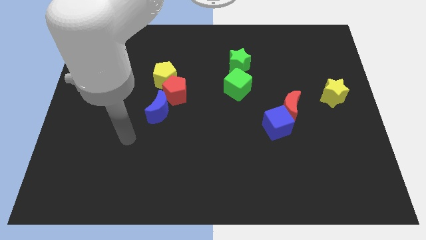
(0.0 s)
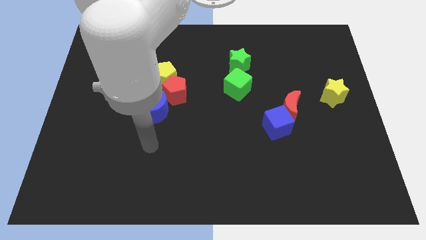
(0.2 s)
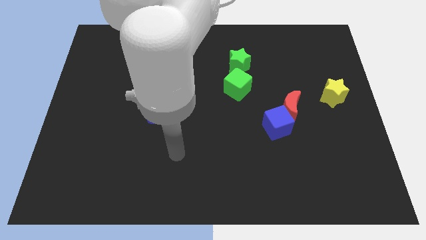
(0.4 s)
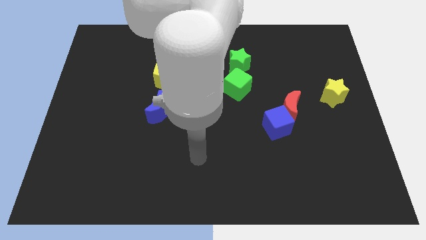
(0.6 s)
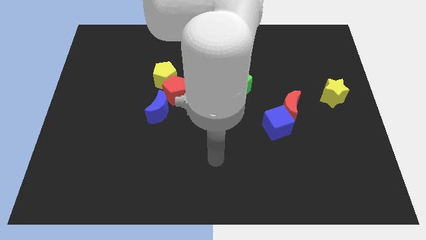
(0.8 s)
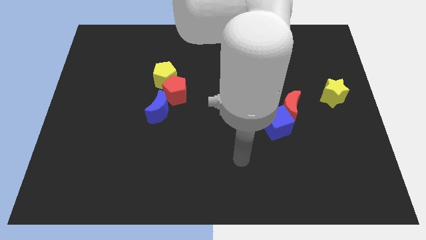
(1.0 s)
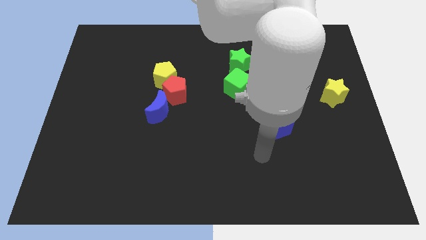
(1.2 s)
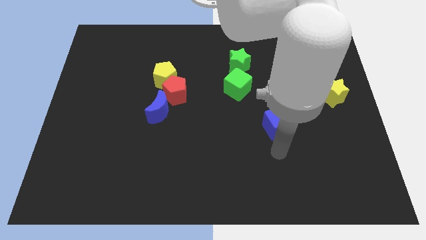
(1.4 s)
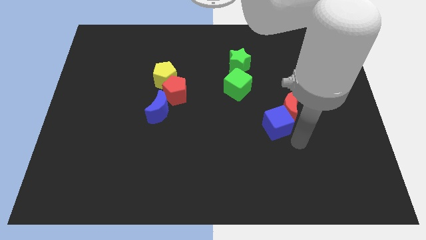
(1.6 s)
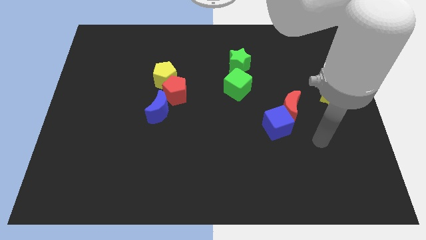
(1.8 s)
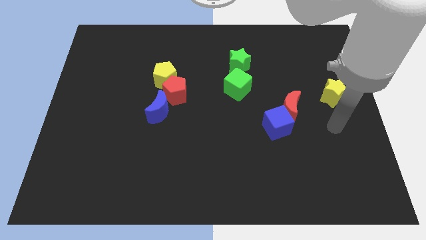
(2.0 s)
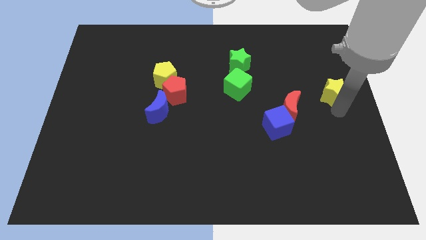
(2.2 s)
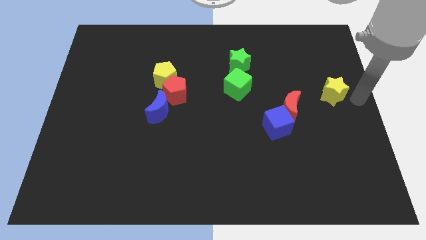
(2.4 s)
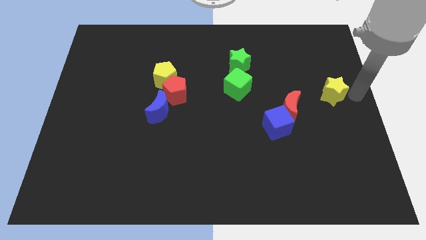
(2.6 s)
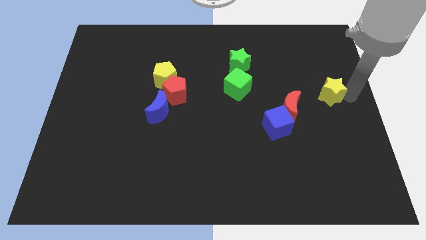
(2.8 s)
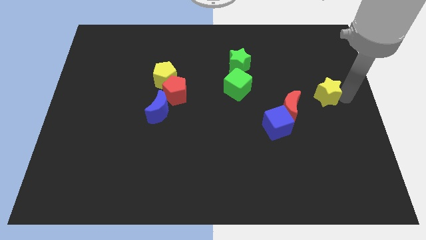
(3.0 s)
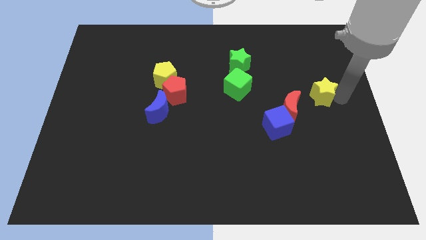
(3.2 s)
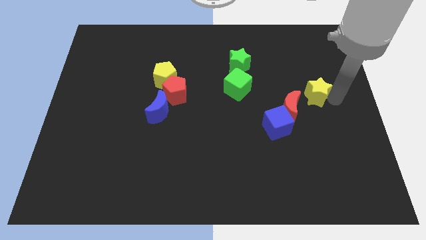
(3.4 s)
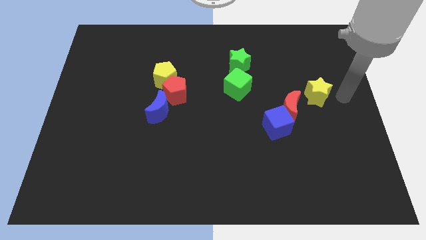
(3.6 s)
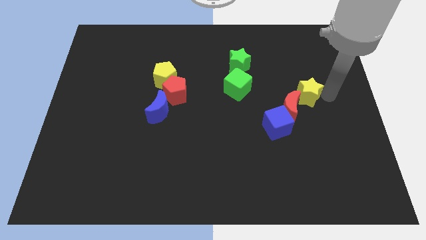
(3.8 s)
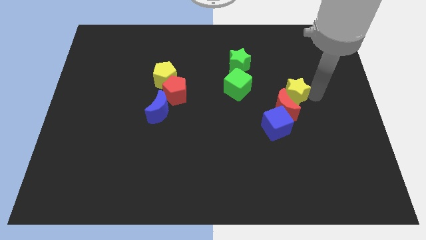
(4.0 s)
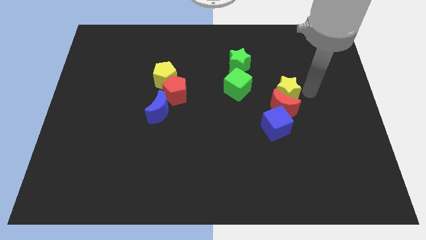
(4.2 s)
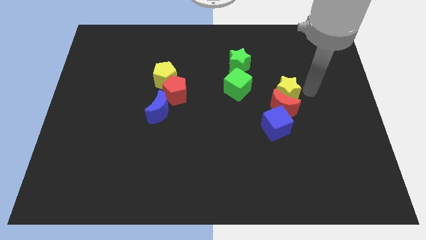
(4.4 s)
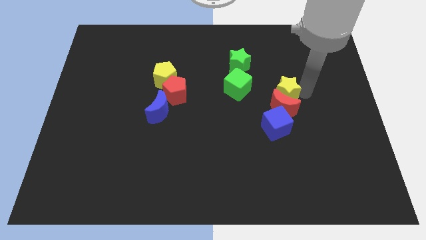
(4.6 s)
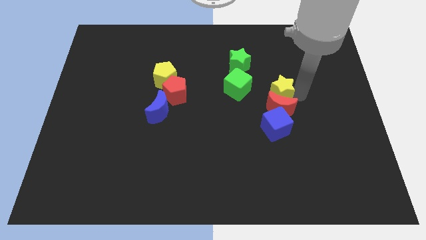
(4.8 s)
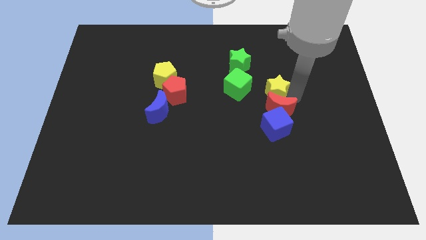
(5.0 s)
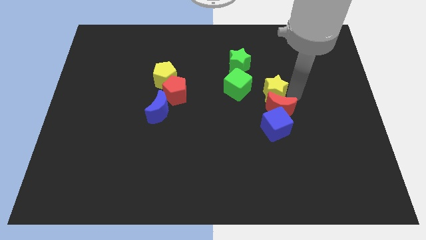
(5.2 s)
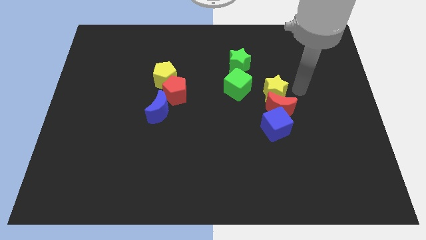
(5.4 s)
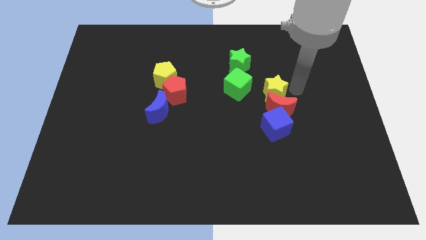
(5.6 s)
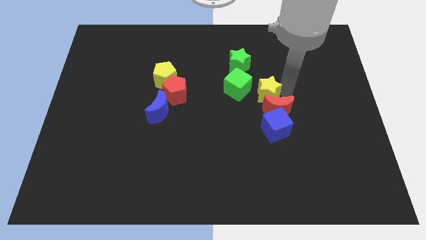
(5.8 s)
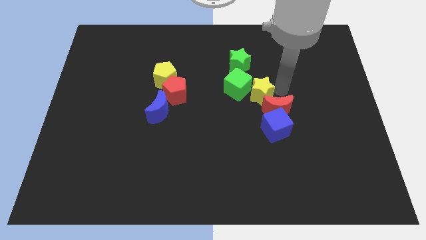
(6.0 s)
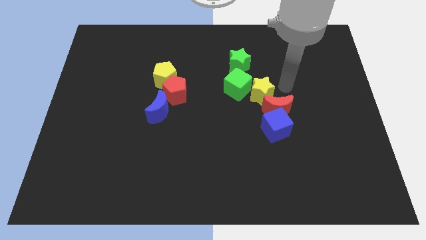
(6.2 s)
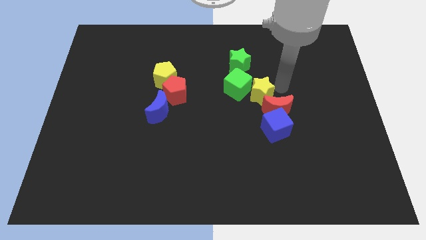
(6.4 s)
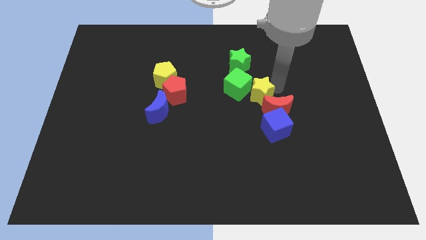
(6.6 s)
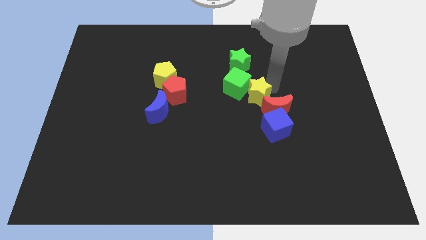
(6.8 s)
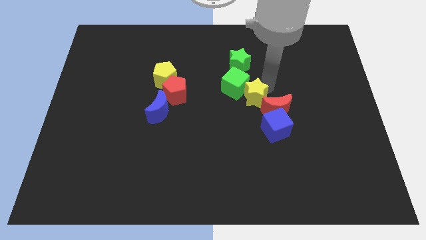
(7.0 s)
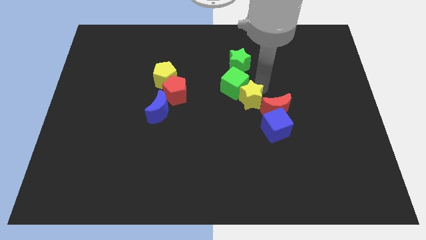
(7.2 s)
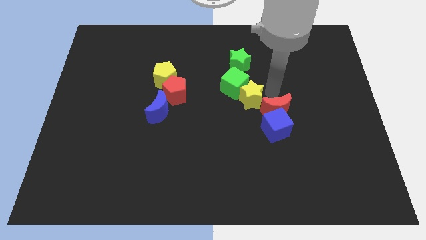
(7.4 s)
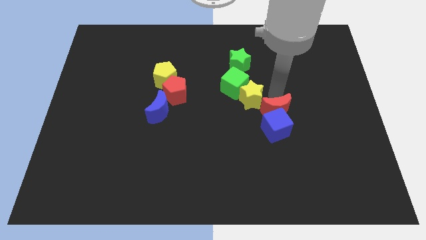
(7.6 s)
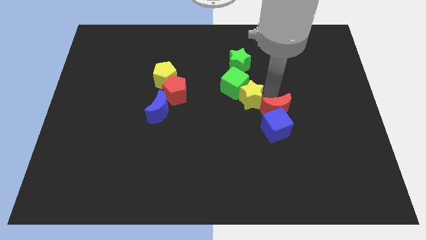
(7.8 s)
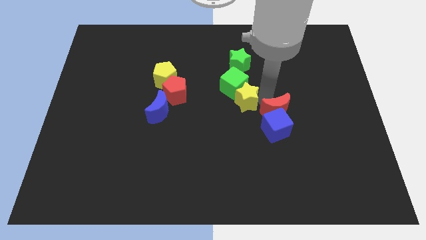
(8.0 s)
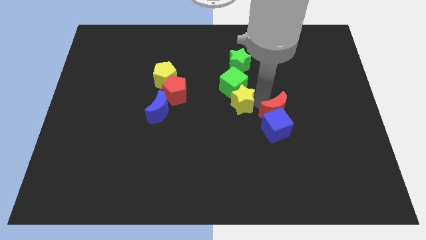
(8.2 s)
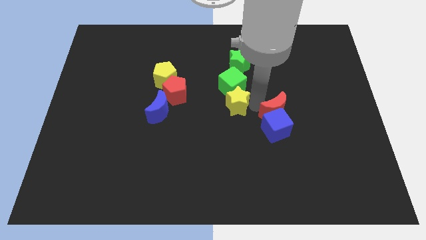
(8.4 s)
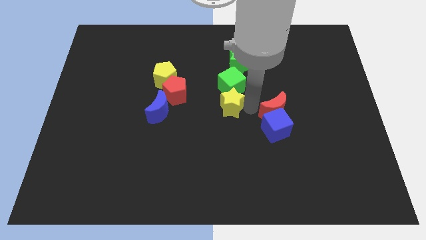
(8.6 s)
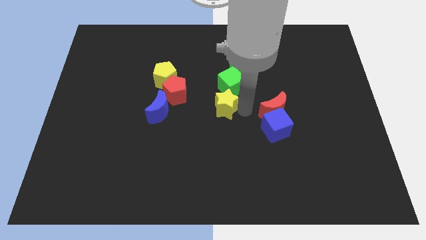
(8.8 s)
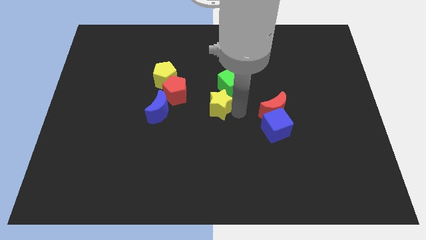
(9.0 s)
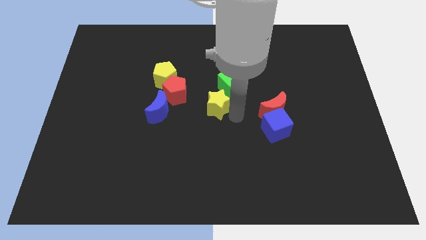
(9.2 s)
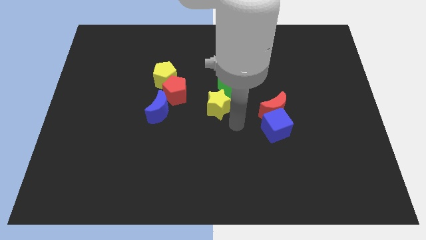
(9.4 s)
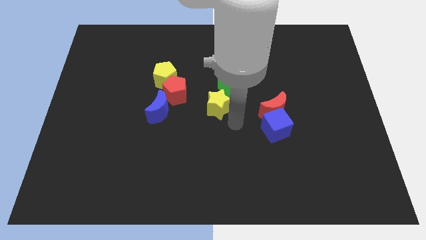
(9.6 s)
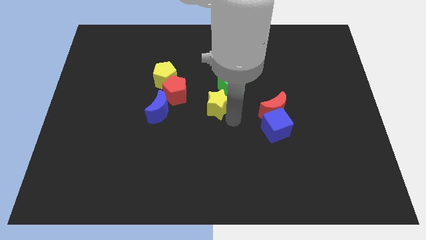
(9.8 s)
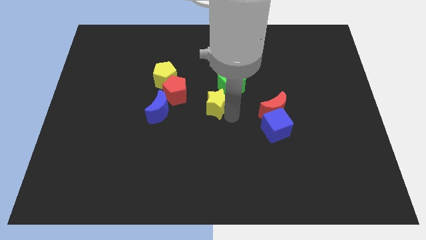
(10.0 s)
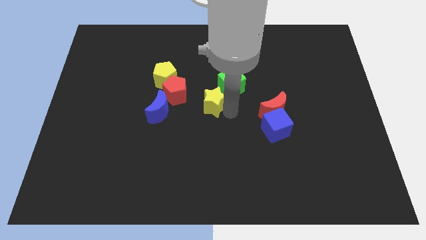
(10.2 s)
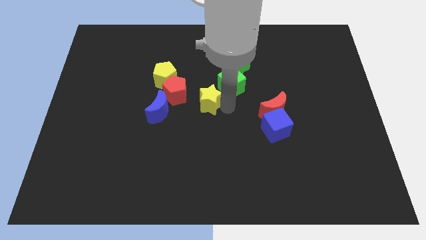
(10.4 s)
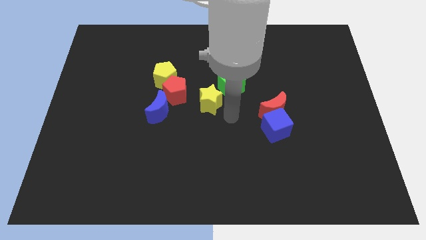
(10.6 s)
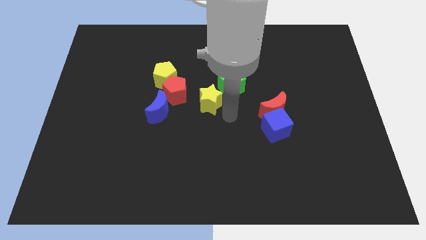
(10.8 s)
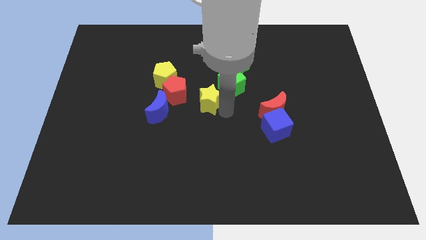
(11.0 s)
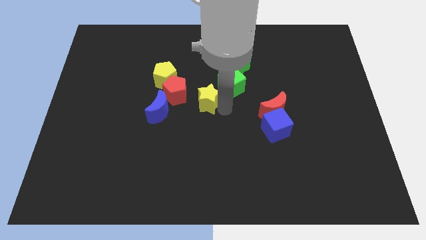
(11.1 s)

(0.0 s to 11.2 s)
move the yellow star left of the green cube

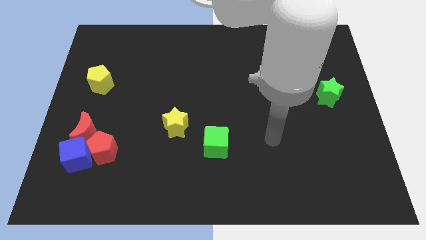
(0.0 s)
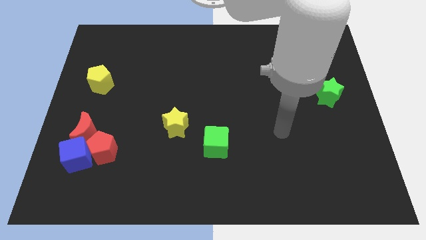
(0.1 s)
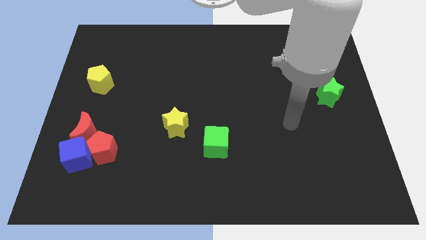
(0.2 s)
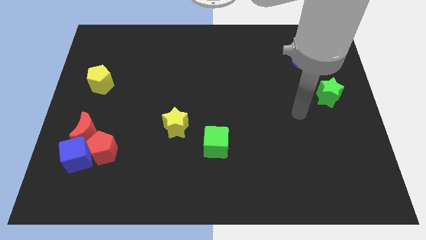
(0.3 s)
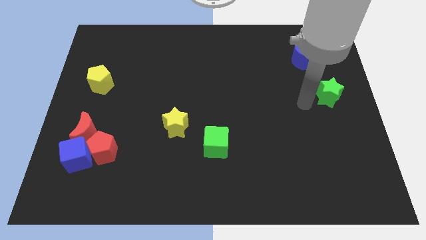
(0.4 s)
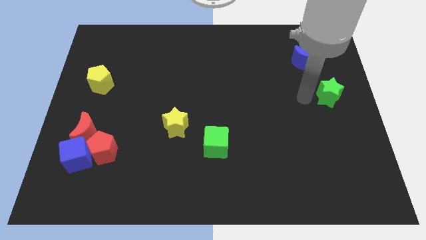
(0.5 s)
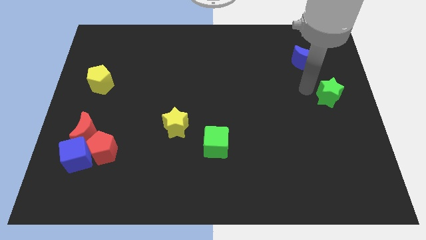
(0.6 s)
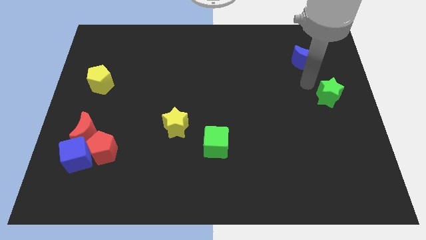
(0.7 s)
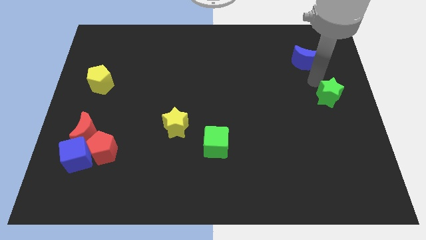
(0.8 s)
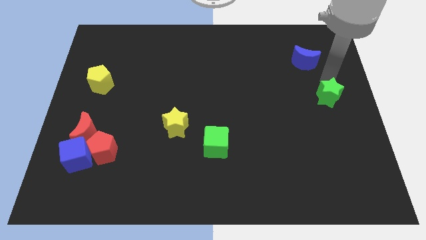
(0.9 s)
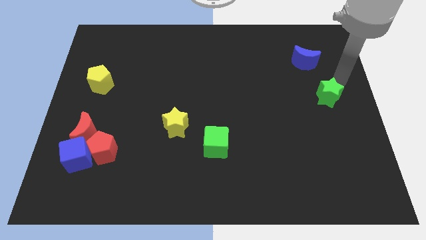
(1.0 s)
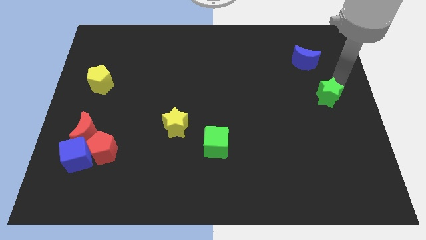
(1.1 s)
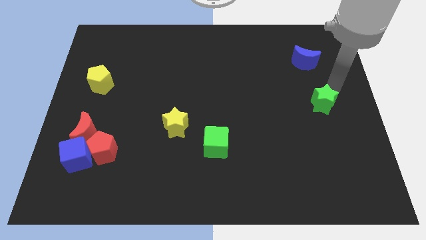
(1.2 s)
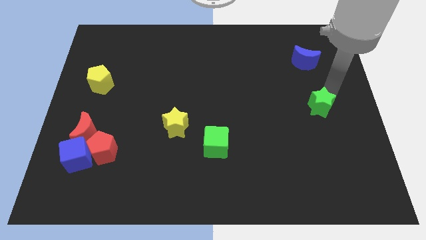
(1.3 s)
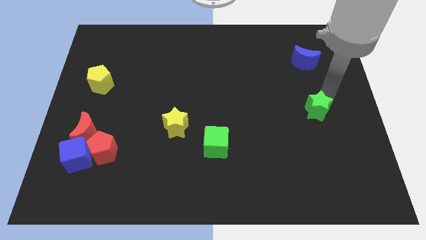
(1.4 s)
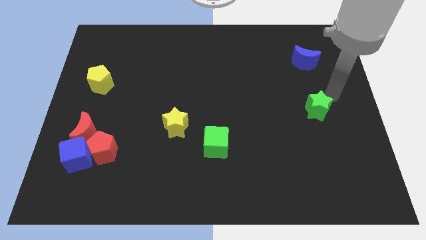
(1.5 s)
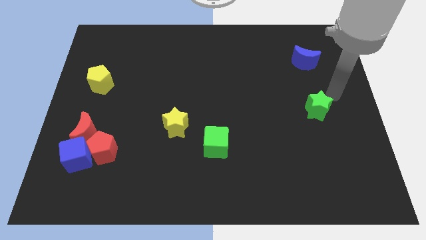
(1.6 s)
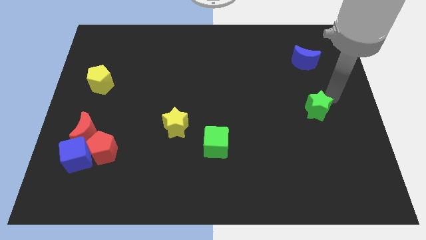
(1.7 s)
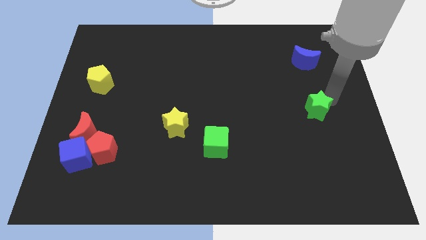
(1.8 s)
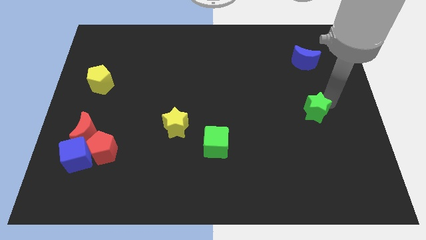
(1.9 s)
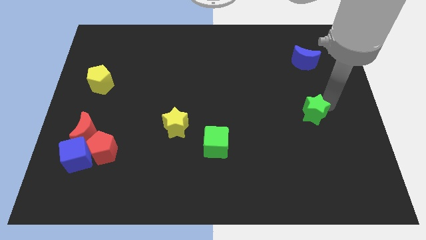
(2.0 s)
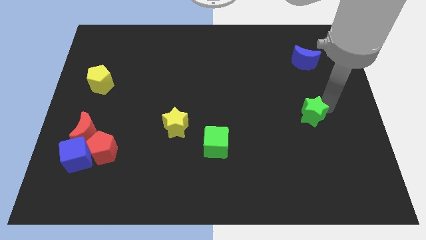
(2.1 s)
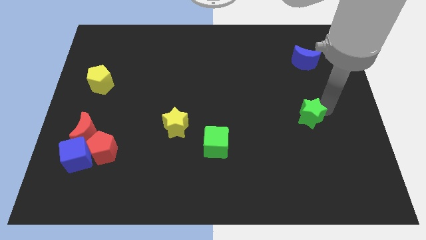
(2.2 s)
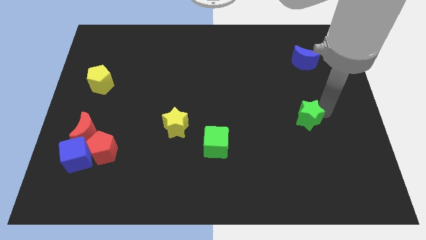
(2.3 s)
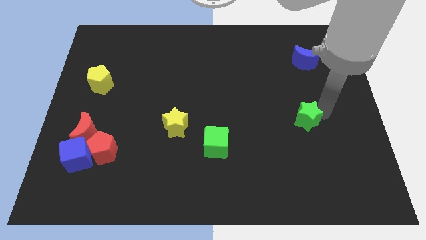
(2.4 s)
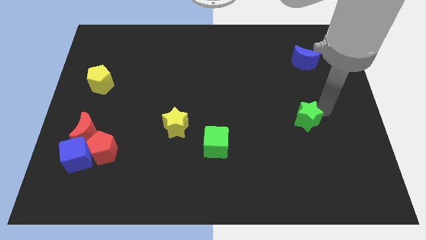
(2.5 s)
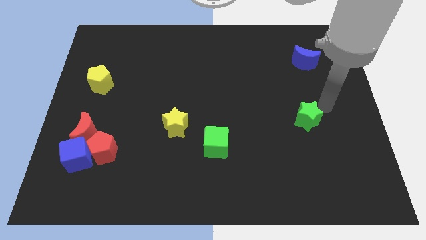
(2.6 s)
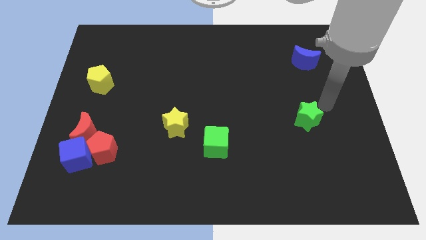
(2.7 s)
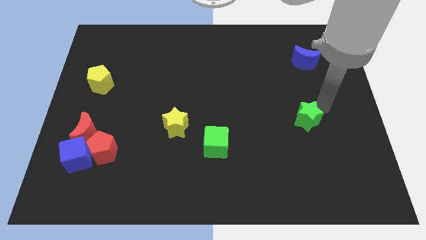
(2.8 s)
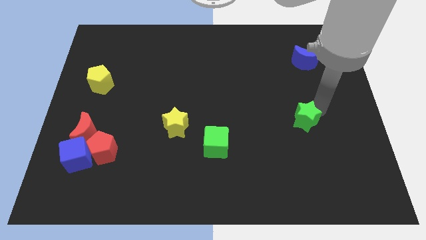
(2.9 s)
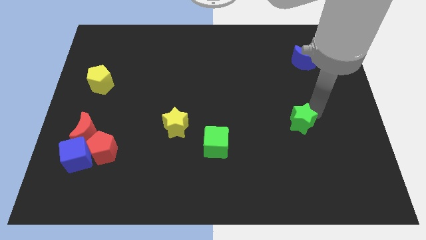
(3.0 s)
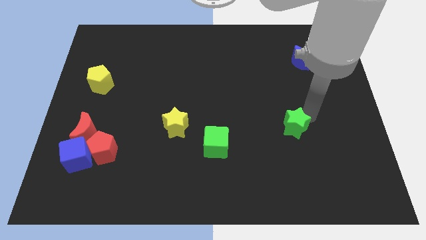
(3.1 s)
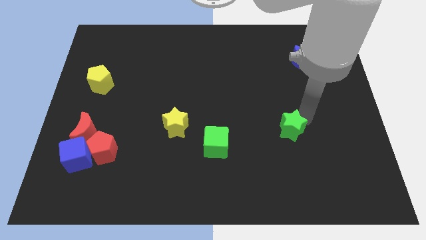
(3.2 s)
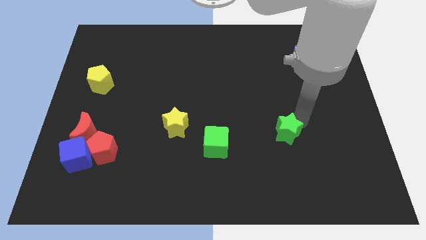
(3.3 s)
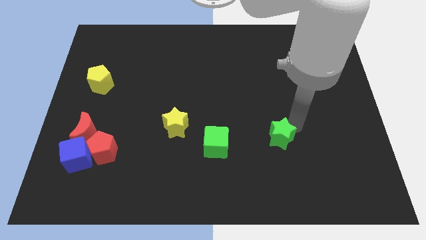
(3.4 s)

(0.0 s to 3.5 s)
push the green star just right of the green cube
